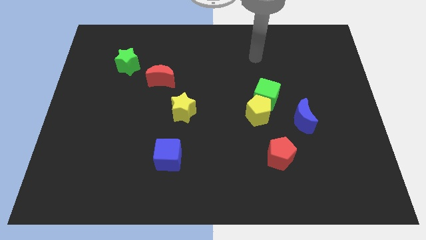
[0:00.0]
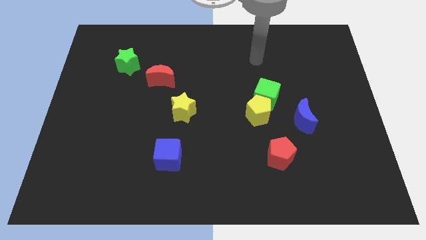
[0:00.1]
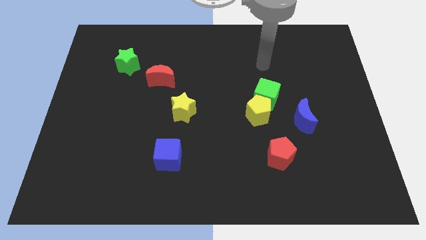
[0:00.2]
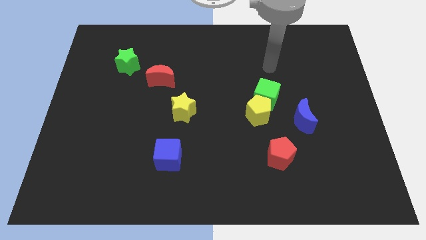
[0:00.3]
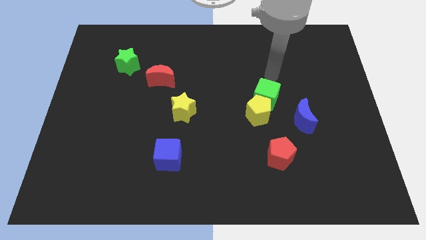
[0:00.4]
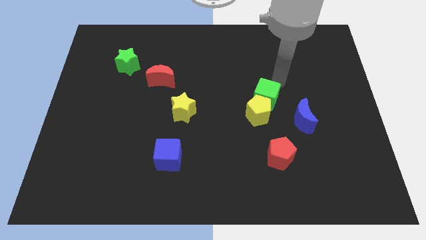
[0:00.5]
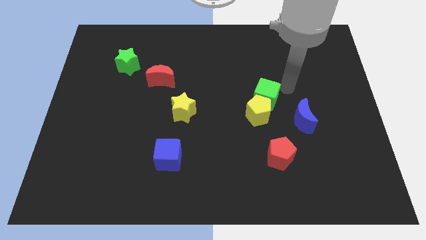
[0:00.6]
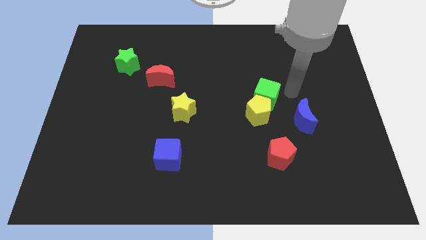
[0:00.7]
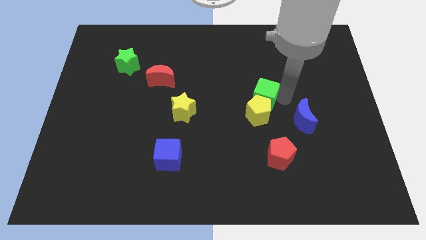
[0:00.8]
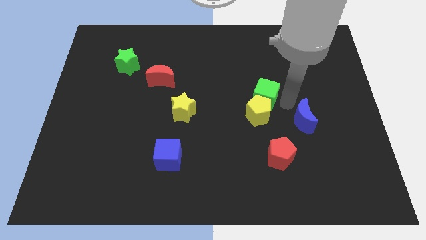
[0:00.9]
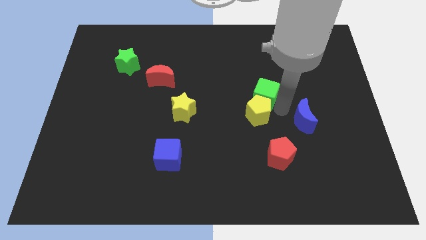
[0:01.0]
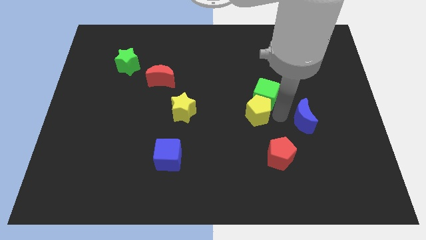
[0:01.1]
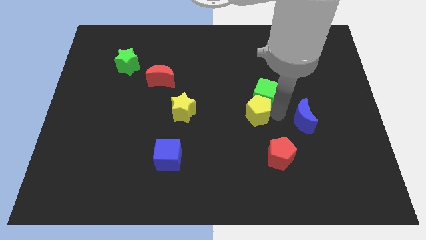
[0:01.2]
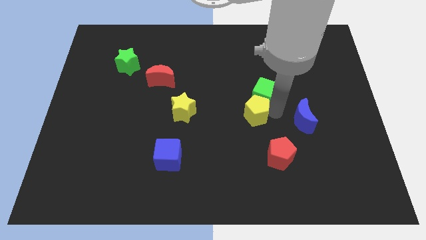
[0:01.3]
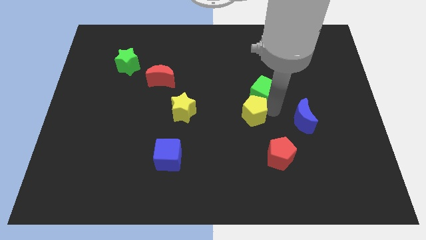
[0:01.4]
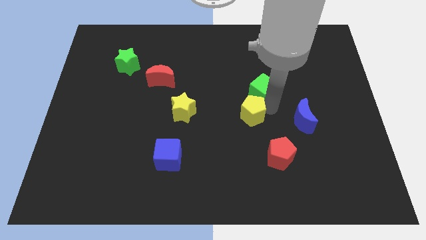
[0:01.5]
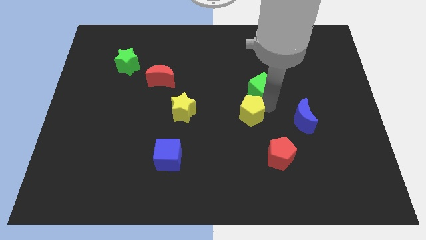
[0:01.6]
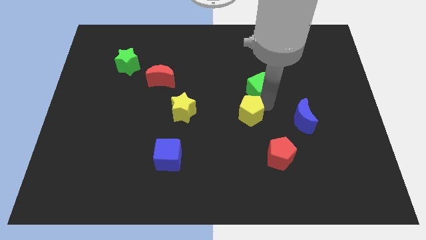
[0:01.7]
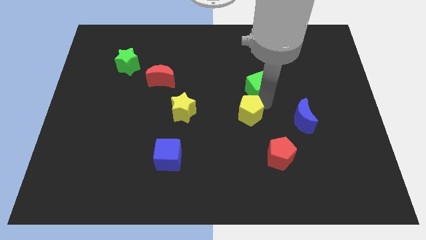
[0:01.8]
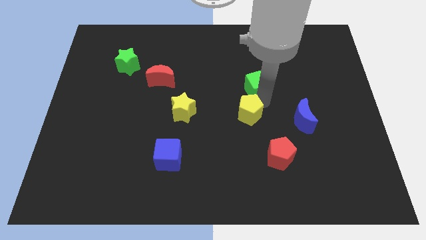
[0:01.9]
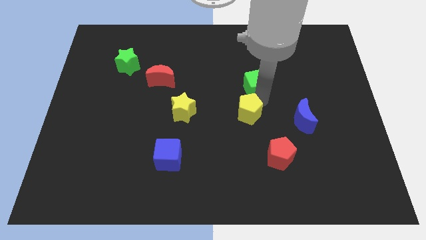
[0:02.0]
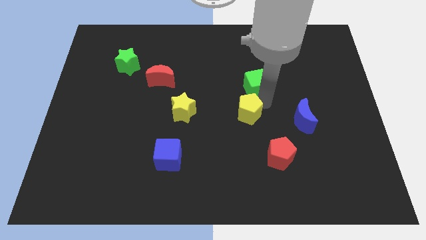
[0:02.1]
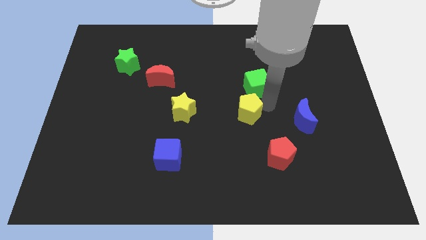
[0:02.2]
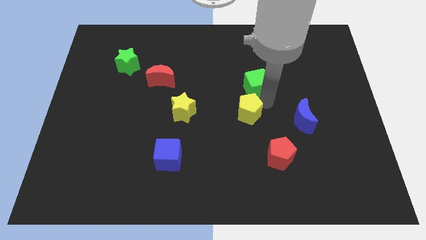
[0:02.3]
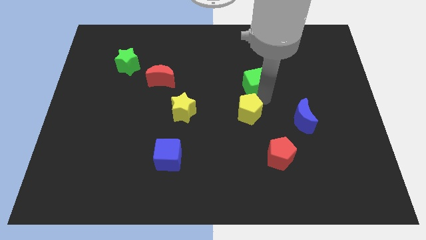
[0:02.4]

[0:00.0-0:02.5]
separate the green cube from the yellow pentagon and blue moon

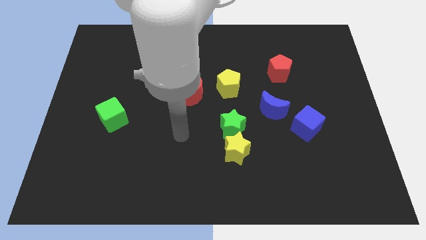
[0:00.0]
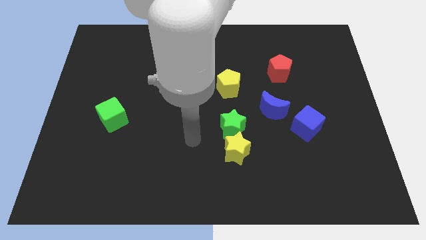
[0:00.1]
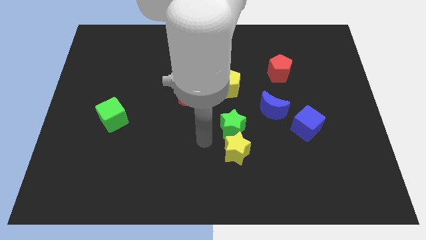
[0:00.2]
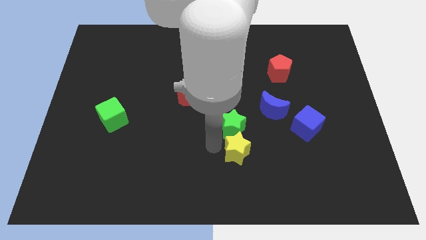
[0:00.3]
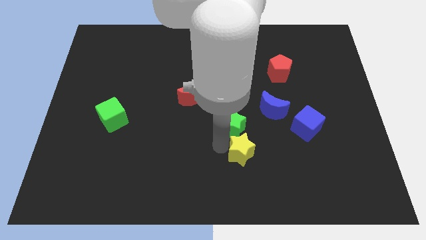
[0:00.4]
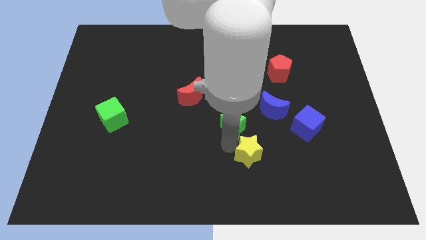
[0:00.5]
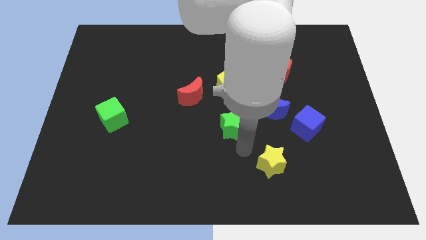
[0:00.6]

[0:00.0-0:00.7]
pull the green star apart from the yellow star

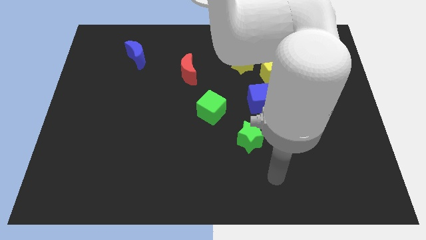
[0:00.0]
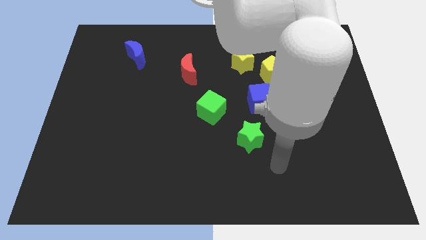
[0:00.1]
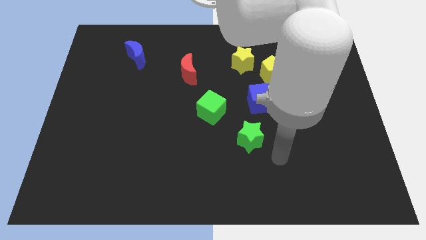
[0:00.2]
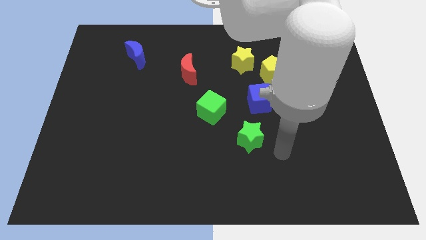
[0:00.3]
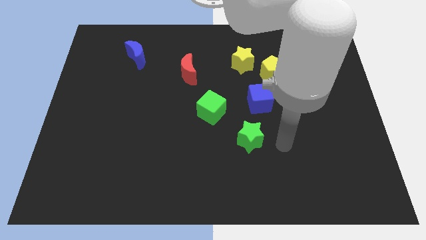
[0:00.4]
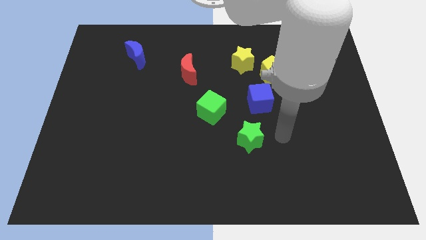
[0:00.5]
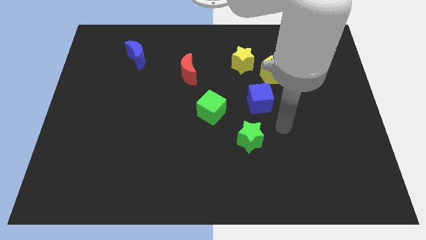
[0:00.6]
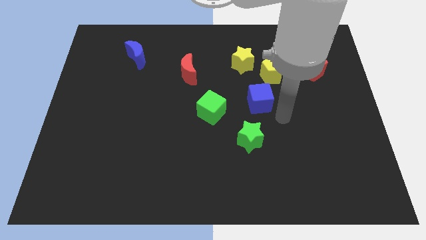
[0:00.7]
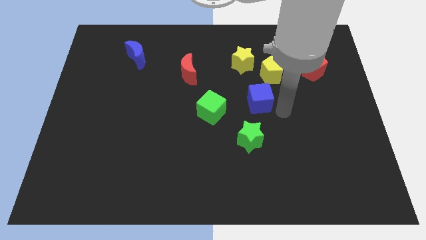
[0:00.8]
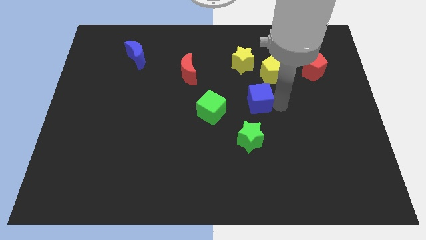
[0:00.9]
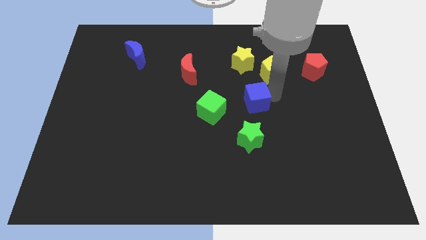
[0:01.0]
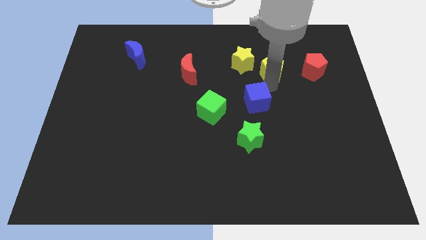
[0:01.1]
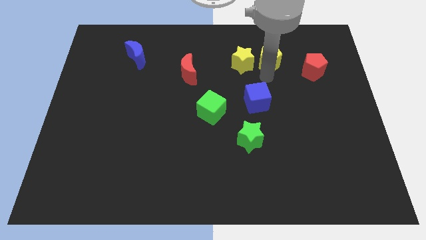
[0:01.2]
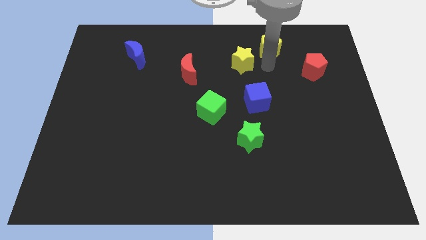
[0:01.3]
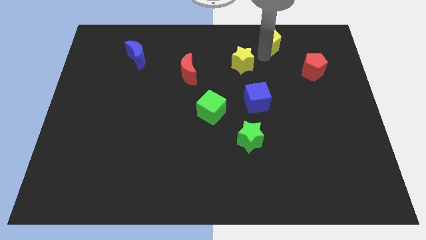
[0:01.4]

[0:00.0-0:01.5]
pull the yellow star apart from the yellow pentagon

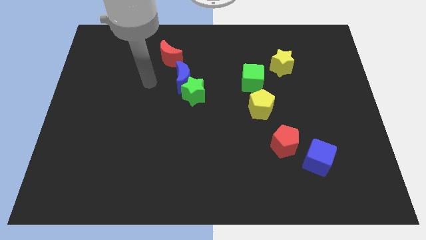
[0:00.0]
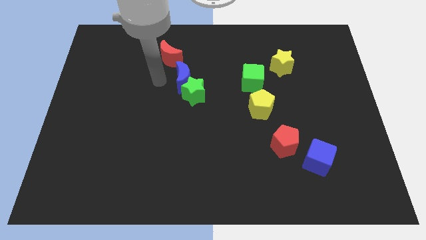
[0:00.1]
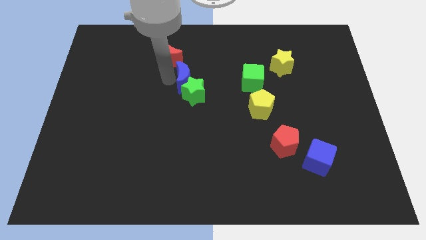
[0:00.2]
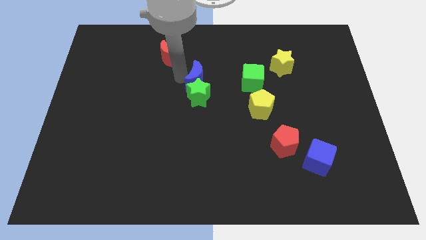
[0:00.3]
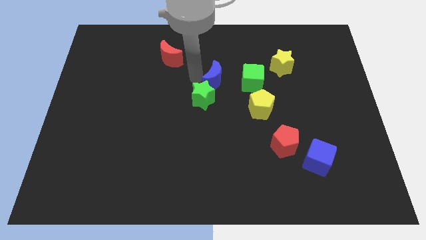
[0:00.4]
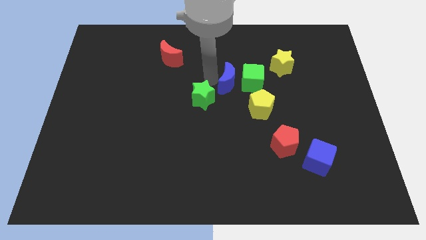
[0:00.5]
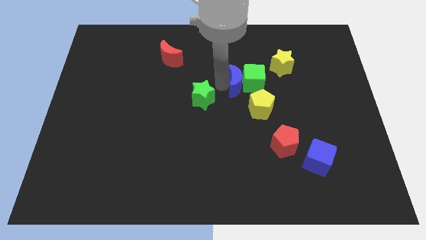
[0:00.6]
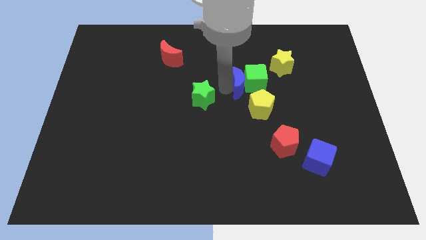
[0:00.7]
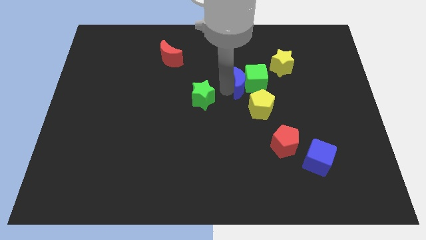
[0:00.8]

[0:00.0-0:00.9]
separate the green star from the blue moon

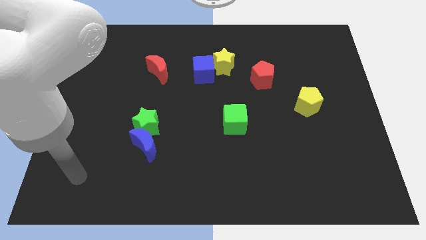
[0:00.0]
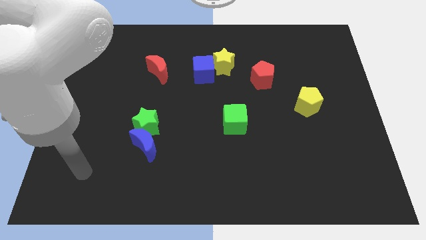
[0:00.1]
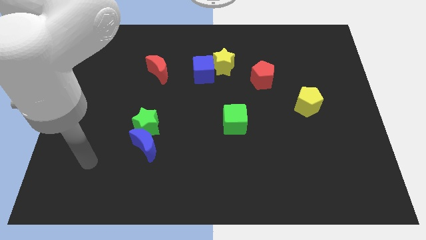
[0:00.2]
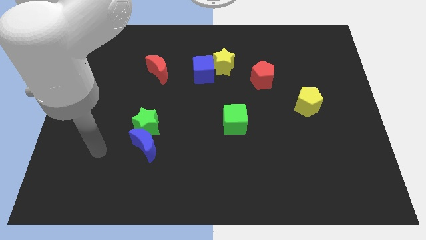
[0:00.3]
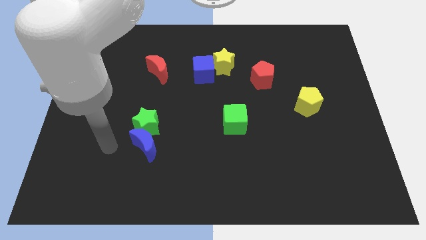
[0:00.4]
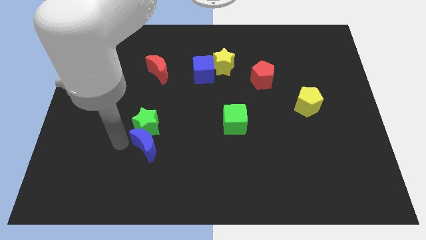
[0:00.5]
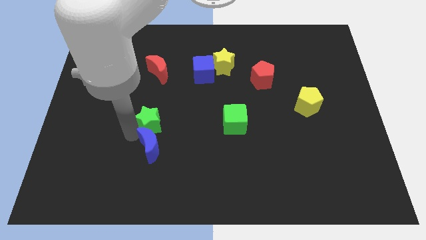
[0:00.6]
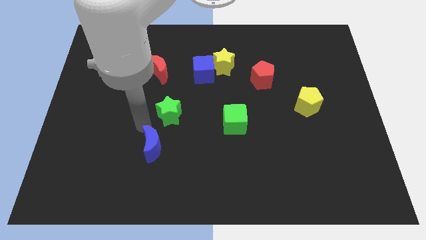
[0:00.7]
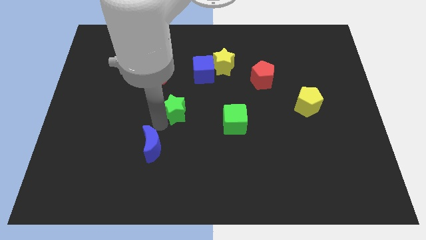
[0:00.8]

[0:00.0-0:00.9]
move the blue moon away from the green star

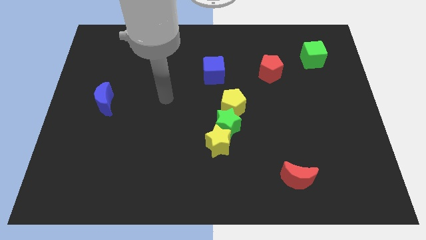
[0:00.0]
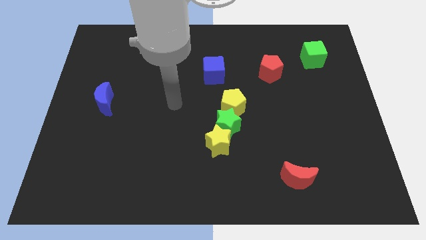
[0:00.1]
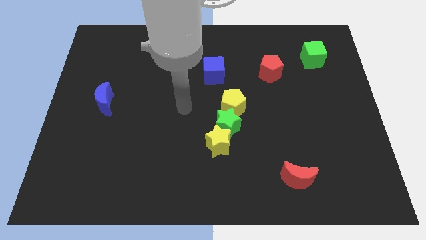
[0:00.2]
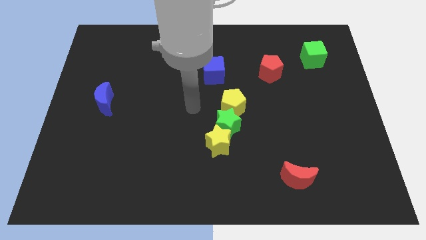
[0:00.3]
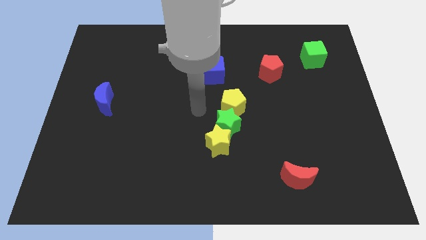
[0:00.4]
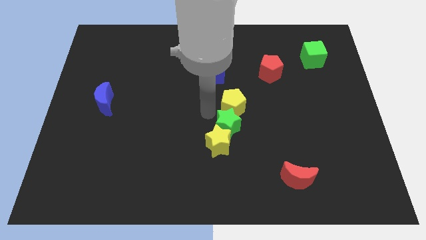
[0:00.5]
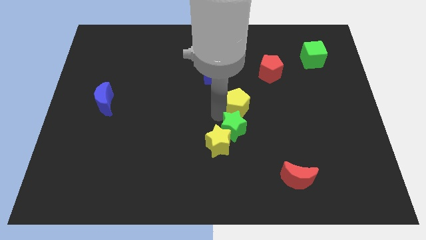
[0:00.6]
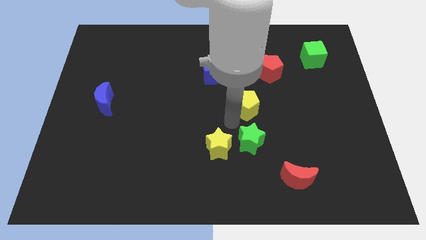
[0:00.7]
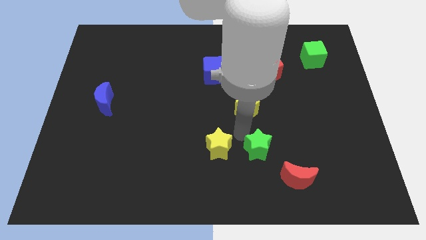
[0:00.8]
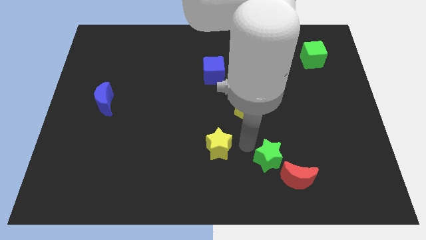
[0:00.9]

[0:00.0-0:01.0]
separate the yellow star from the green star

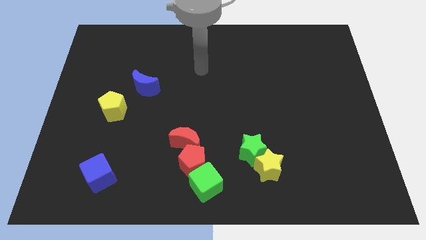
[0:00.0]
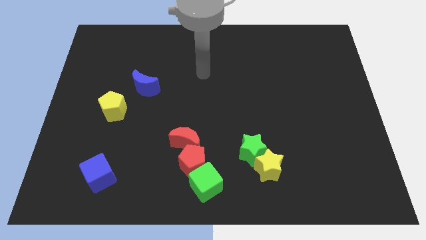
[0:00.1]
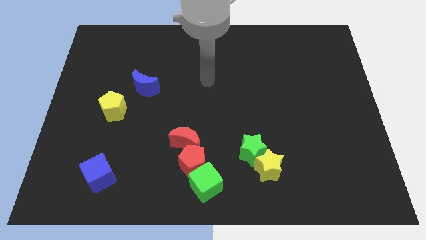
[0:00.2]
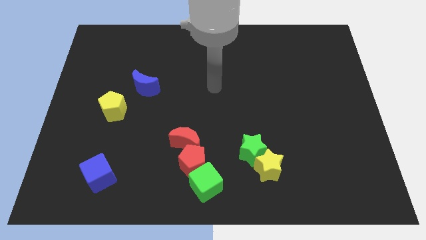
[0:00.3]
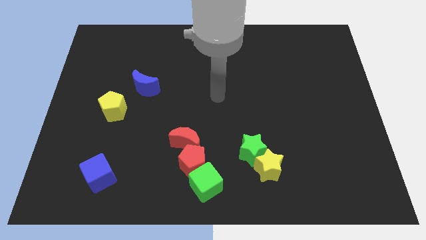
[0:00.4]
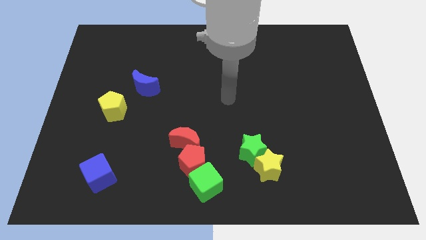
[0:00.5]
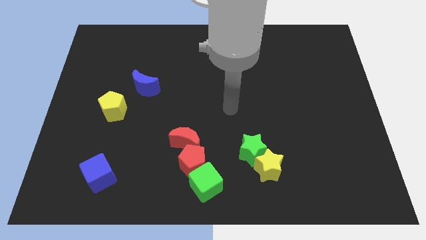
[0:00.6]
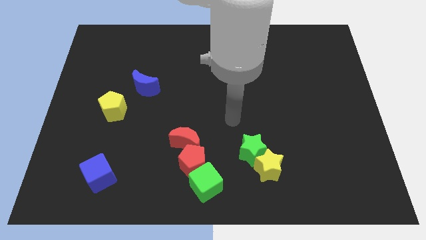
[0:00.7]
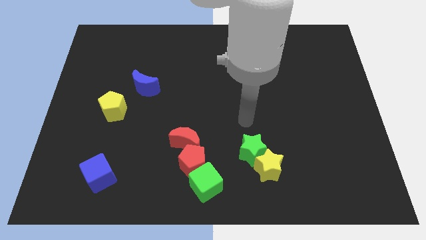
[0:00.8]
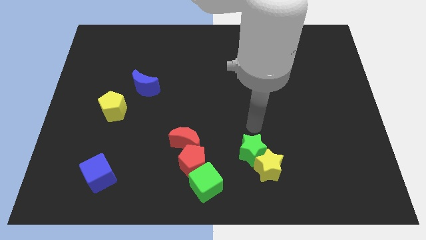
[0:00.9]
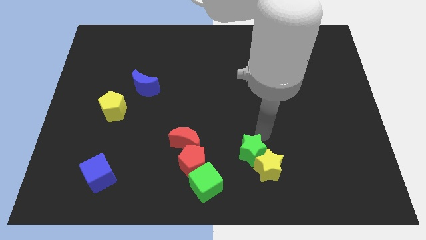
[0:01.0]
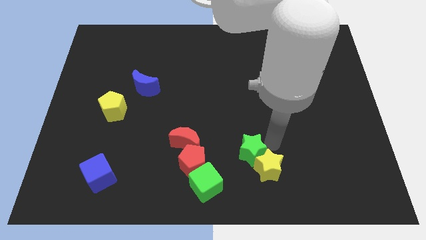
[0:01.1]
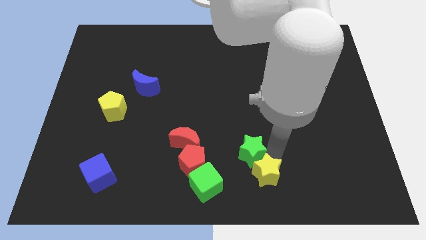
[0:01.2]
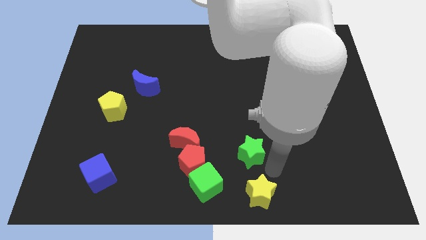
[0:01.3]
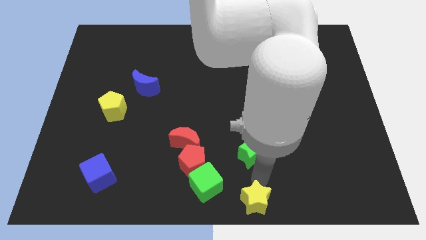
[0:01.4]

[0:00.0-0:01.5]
separate the green star from the yellow star

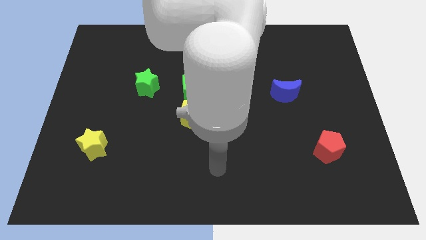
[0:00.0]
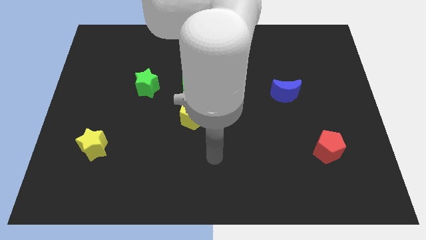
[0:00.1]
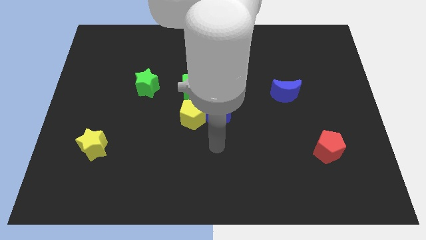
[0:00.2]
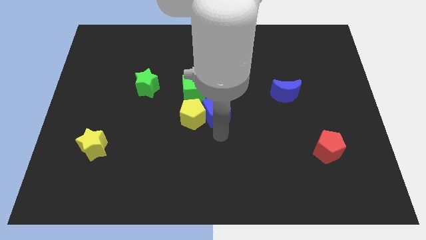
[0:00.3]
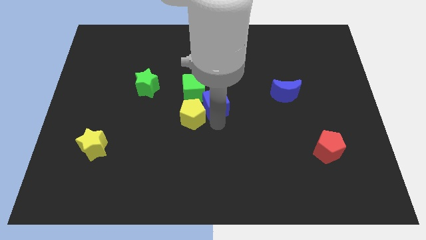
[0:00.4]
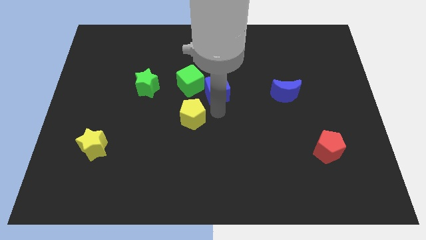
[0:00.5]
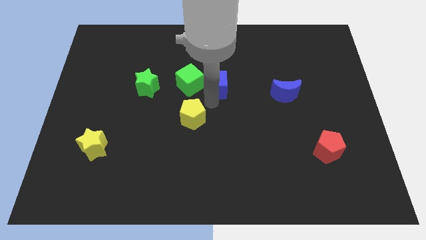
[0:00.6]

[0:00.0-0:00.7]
separate the yellow pentagon from the blue cube and green cube
